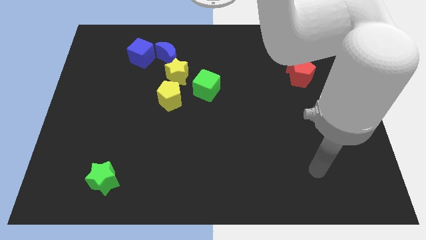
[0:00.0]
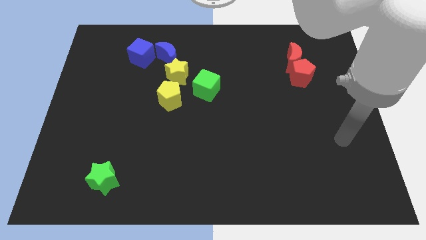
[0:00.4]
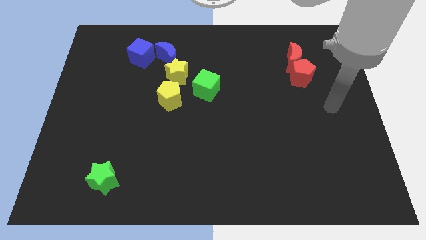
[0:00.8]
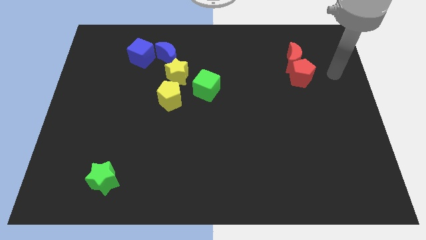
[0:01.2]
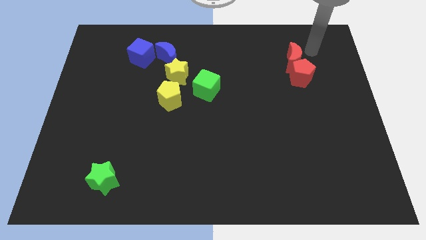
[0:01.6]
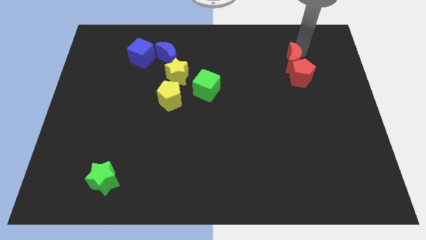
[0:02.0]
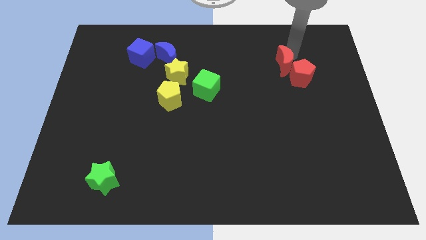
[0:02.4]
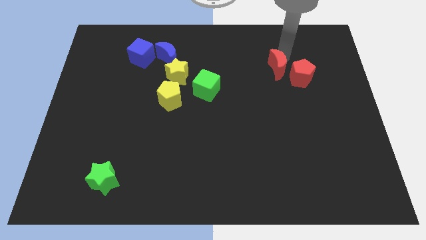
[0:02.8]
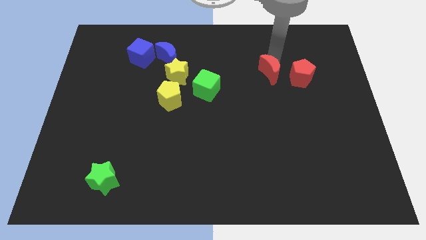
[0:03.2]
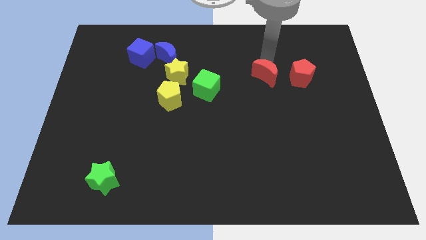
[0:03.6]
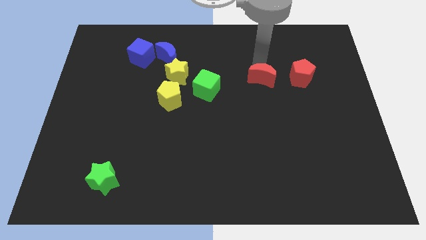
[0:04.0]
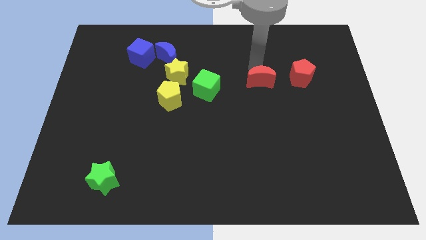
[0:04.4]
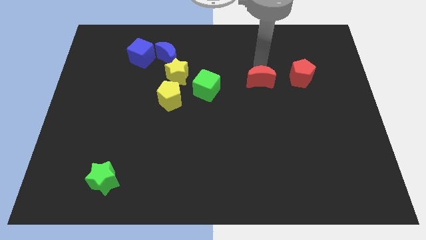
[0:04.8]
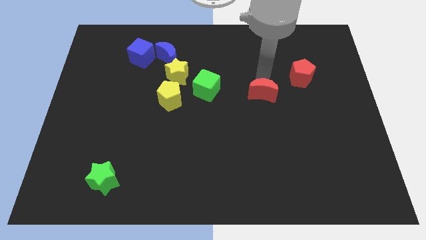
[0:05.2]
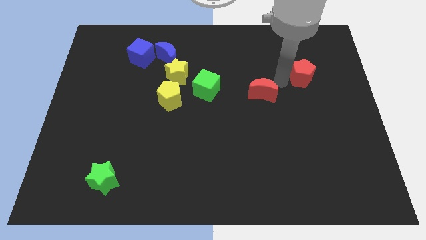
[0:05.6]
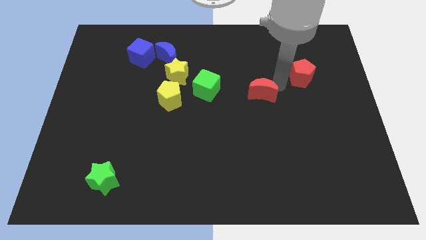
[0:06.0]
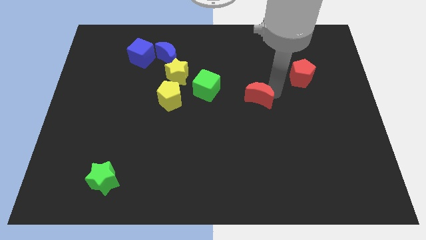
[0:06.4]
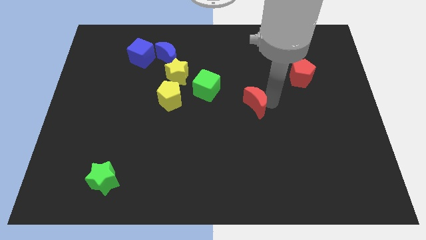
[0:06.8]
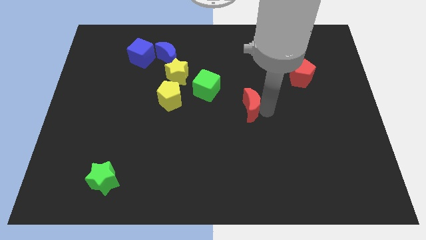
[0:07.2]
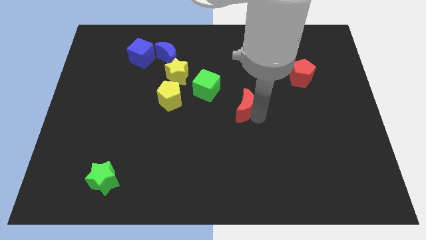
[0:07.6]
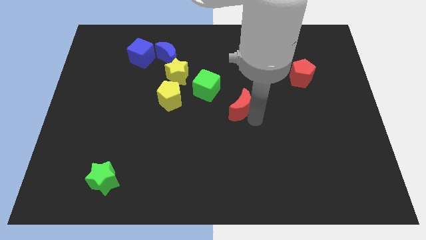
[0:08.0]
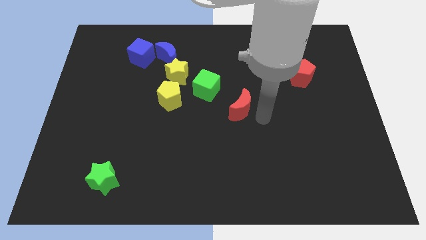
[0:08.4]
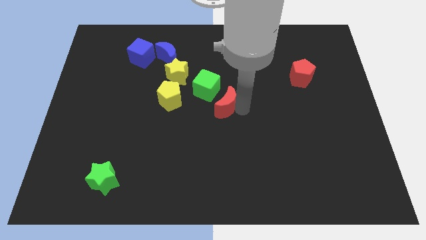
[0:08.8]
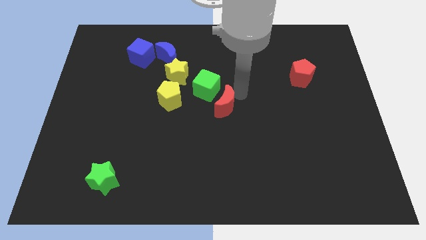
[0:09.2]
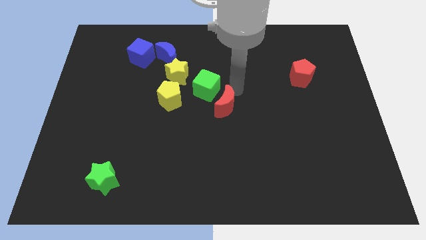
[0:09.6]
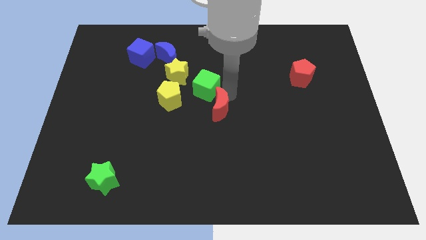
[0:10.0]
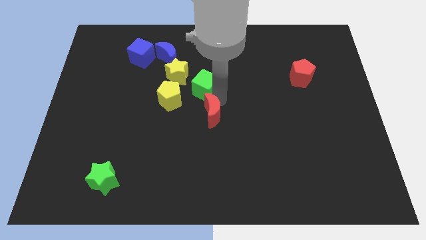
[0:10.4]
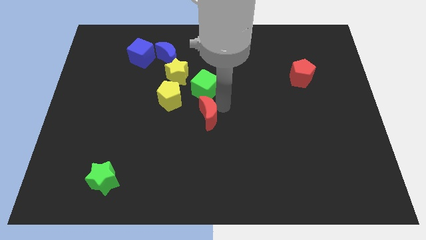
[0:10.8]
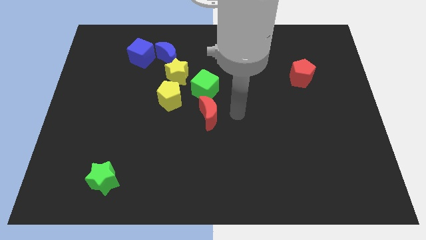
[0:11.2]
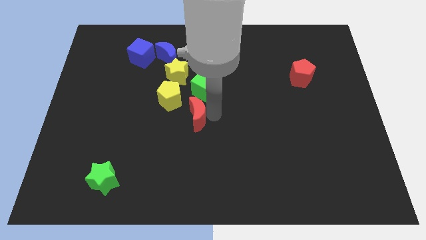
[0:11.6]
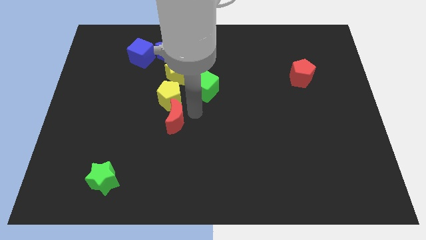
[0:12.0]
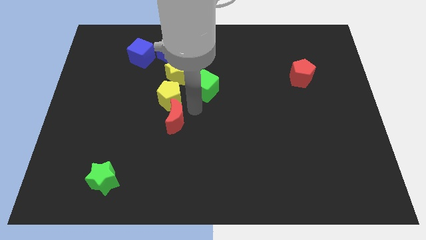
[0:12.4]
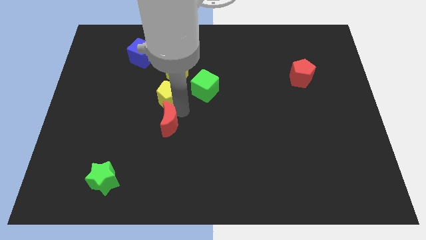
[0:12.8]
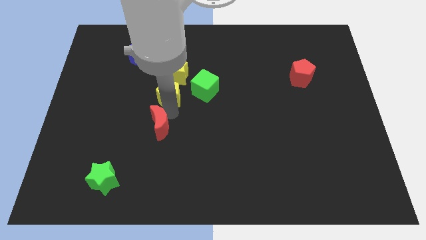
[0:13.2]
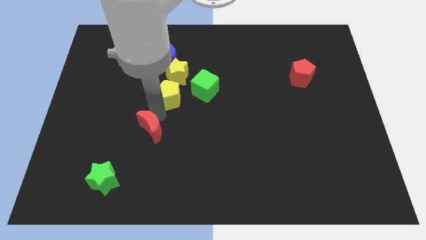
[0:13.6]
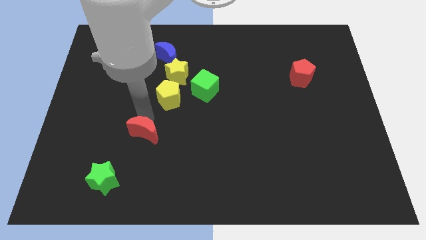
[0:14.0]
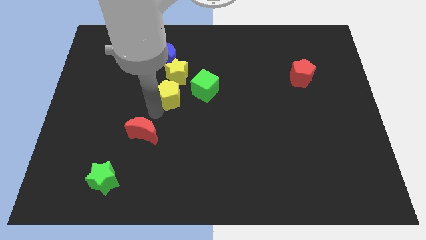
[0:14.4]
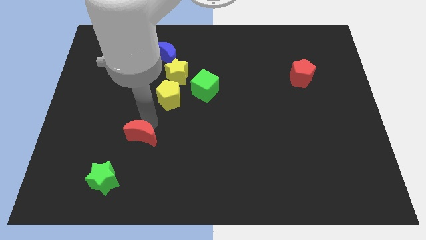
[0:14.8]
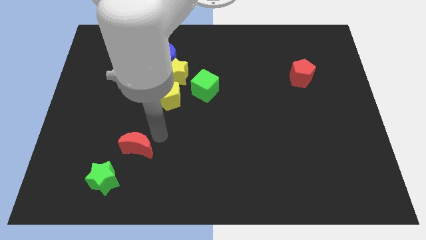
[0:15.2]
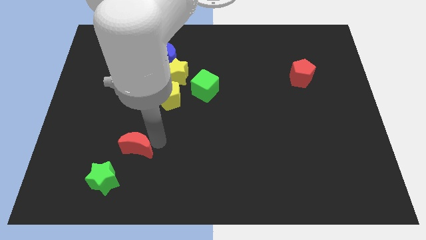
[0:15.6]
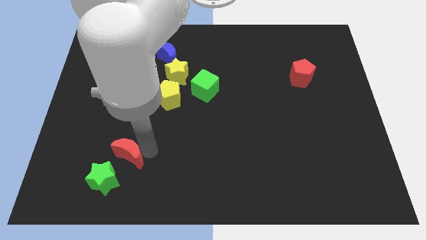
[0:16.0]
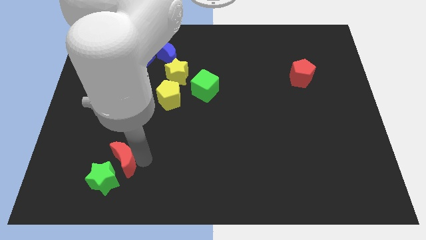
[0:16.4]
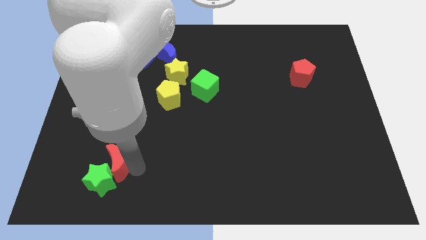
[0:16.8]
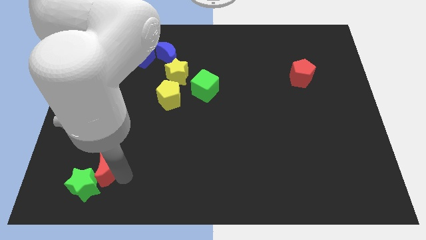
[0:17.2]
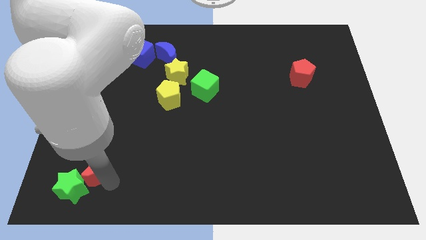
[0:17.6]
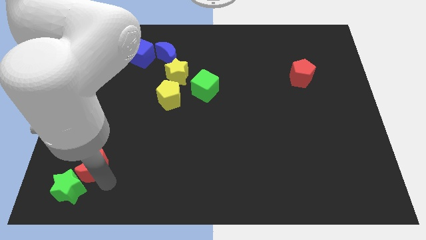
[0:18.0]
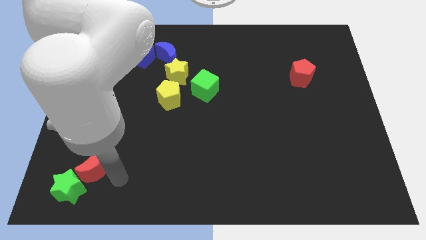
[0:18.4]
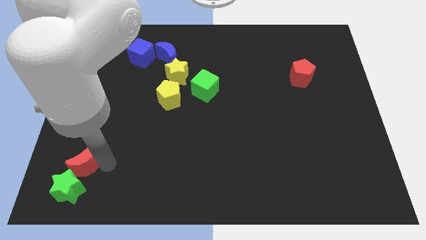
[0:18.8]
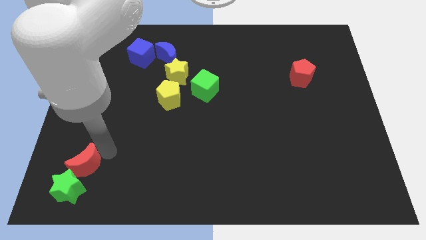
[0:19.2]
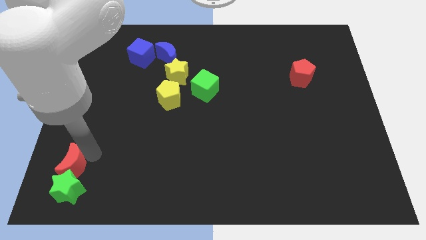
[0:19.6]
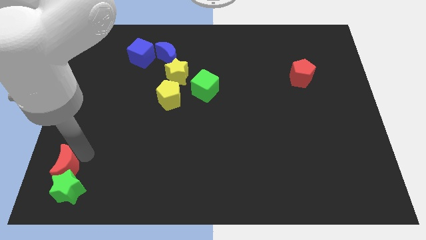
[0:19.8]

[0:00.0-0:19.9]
move the red moon to the bottom left of the board

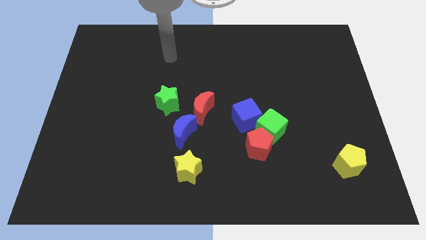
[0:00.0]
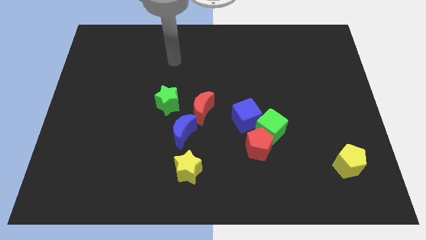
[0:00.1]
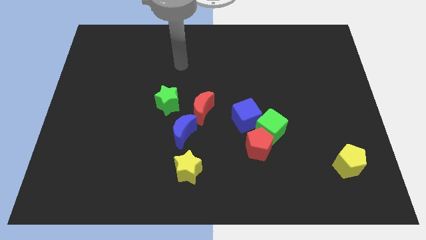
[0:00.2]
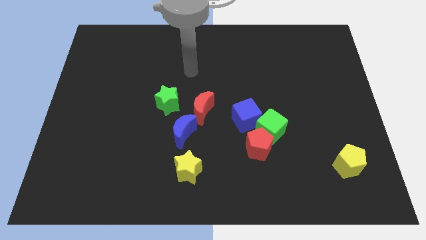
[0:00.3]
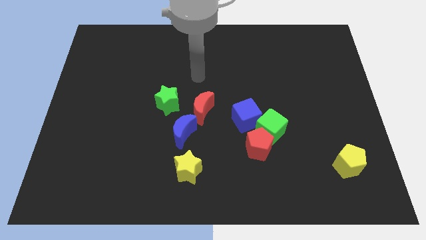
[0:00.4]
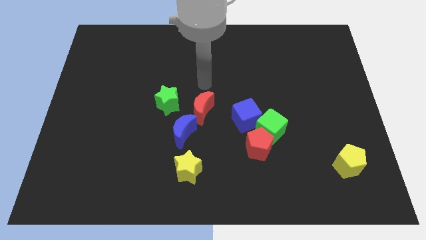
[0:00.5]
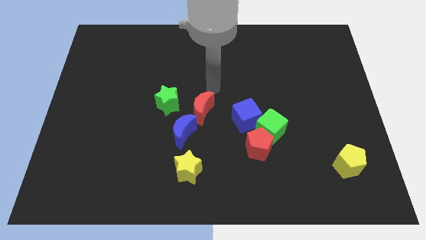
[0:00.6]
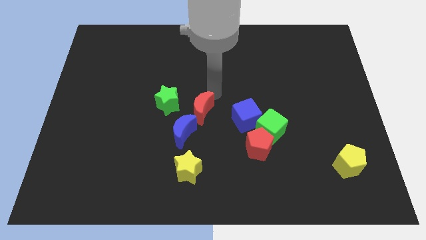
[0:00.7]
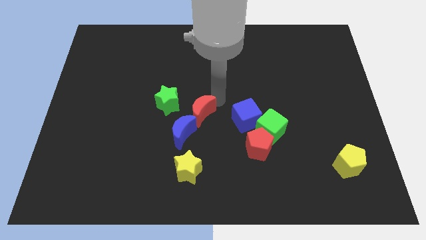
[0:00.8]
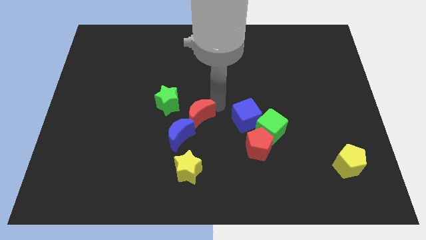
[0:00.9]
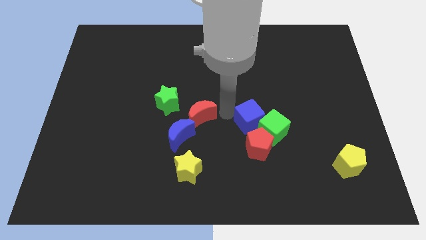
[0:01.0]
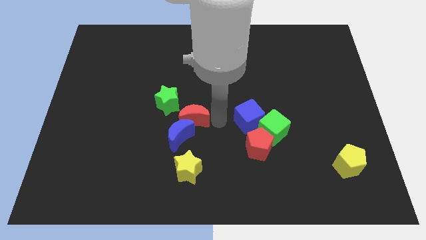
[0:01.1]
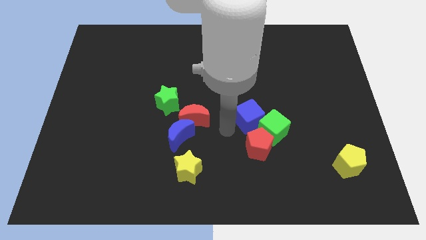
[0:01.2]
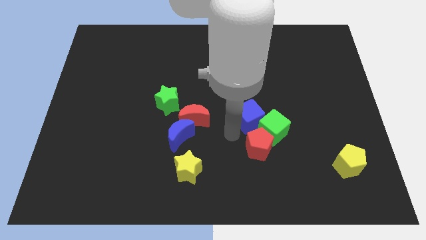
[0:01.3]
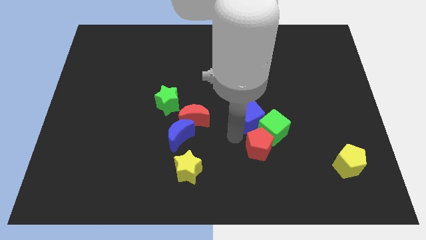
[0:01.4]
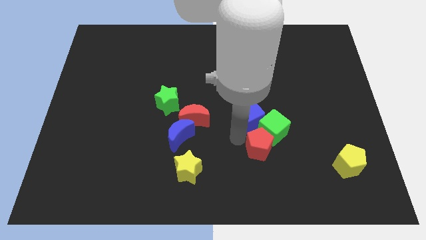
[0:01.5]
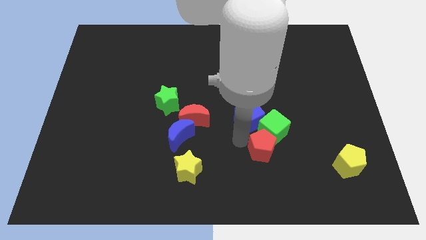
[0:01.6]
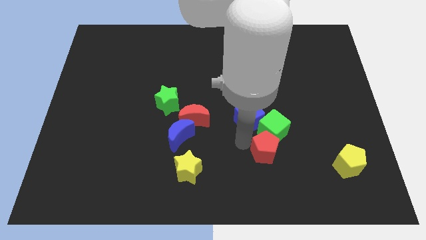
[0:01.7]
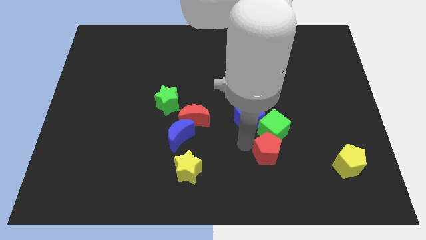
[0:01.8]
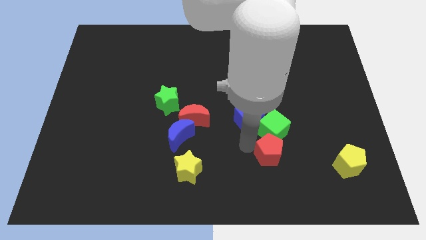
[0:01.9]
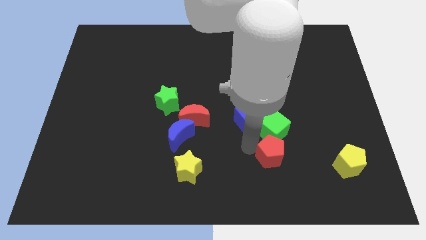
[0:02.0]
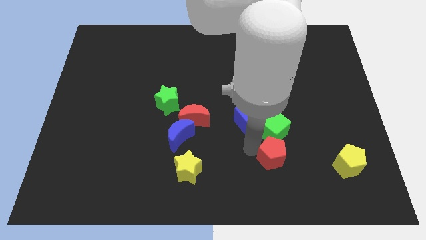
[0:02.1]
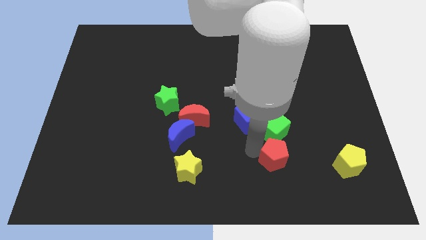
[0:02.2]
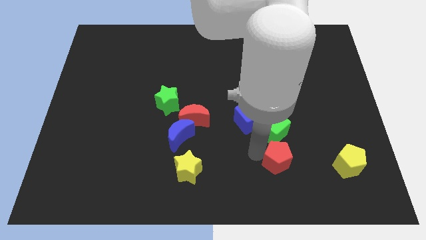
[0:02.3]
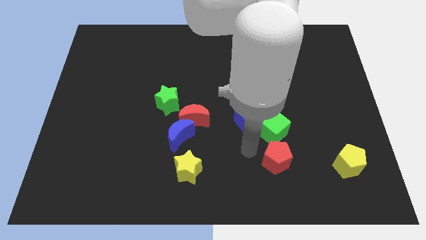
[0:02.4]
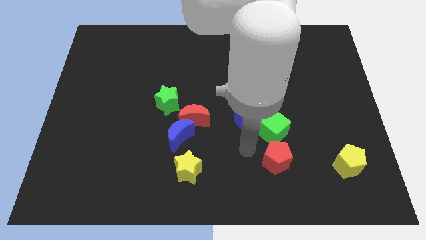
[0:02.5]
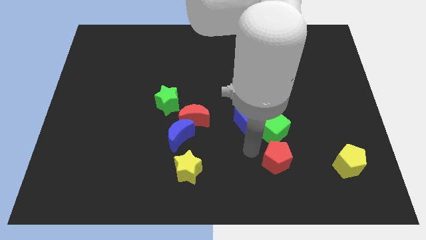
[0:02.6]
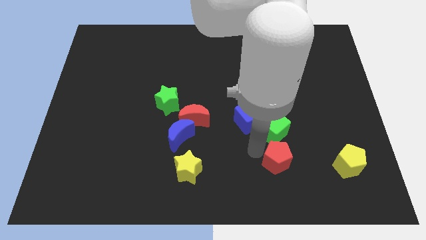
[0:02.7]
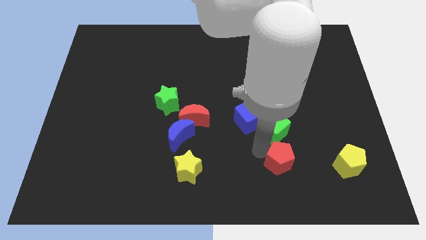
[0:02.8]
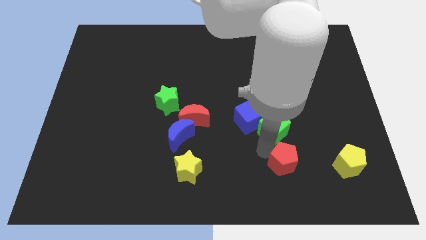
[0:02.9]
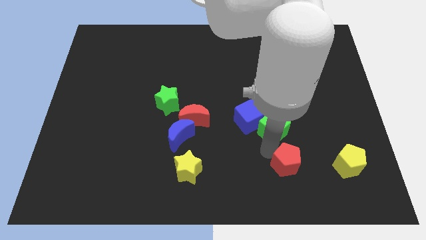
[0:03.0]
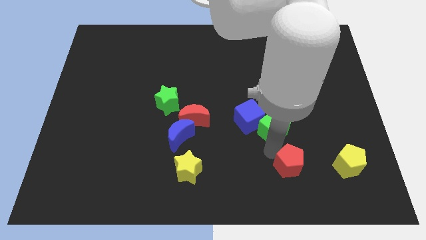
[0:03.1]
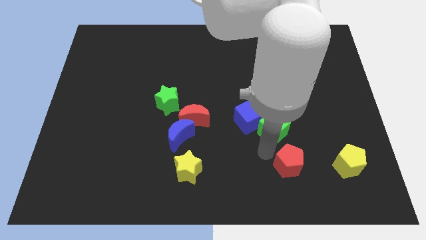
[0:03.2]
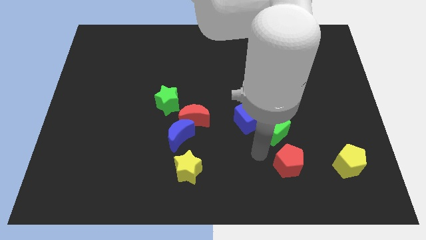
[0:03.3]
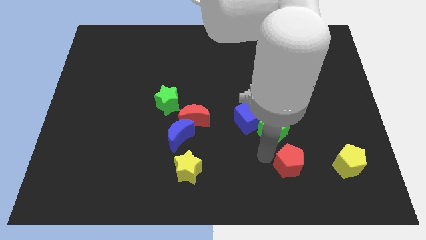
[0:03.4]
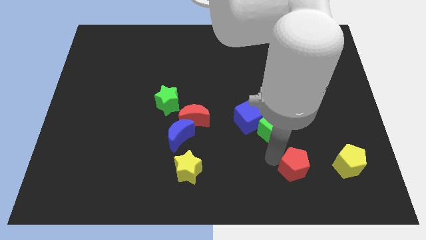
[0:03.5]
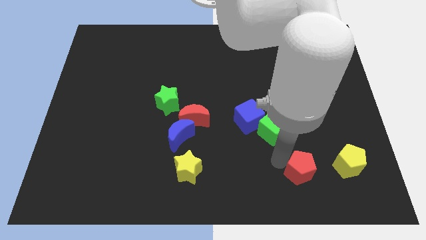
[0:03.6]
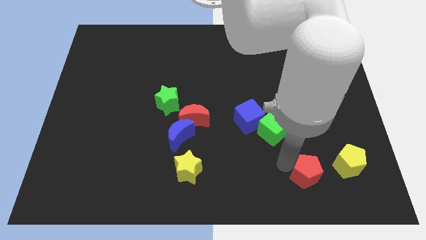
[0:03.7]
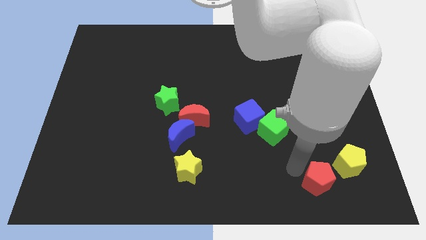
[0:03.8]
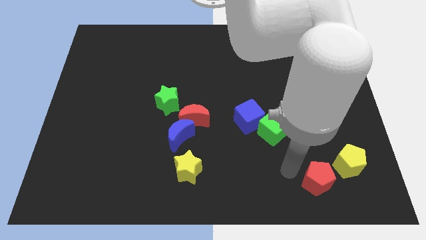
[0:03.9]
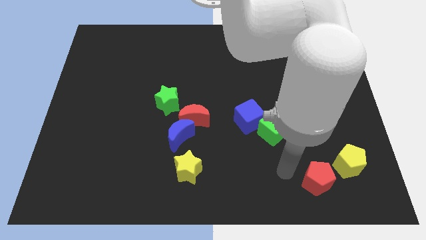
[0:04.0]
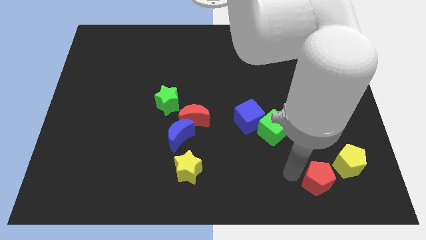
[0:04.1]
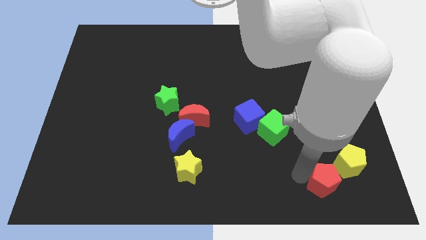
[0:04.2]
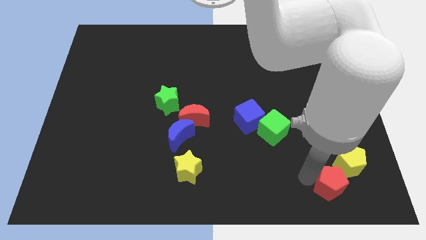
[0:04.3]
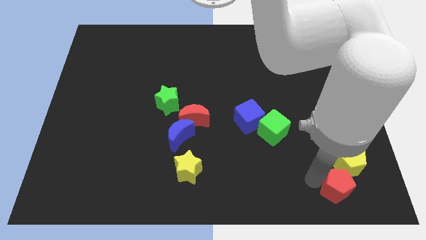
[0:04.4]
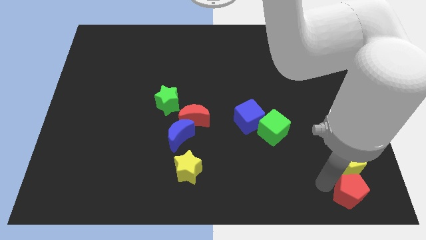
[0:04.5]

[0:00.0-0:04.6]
push the red pentagon to the bottom right
